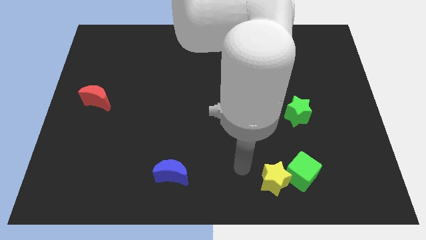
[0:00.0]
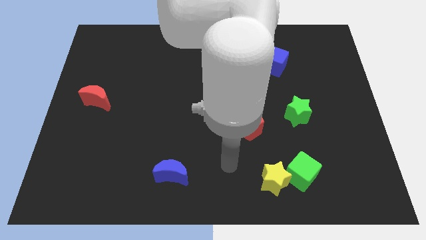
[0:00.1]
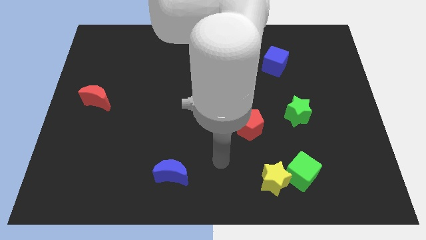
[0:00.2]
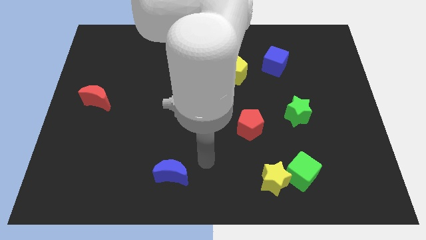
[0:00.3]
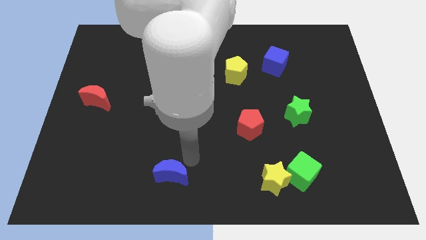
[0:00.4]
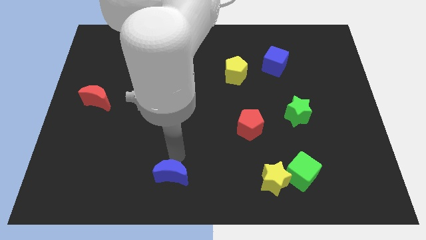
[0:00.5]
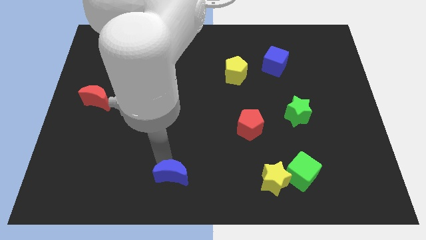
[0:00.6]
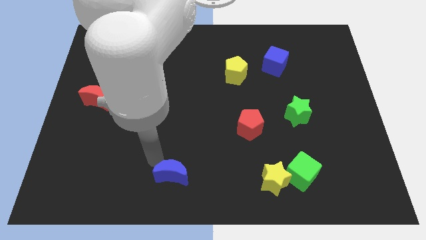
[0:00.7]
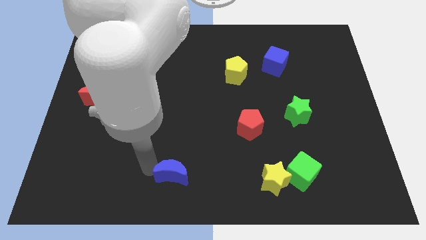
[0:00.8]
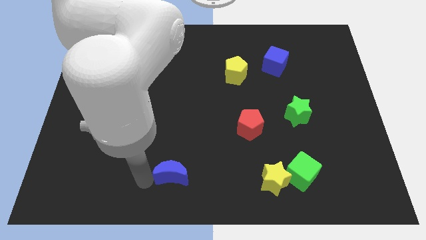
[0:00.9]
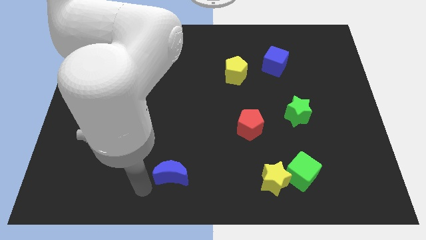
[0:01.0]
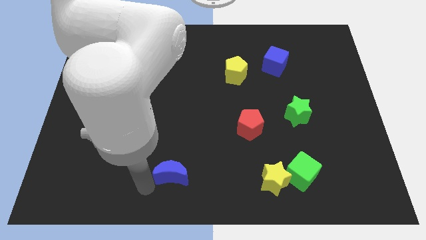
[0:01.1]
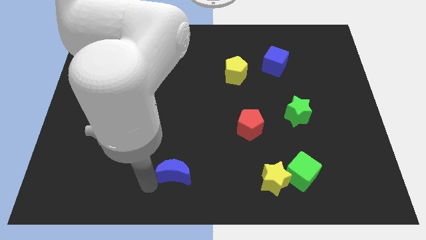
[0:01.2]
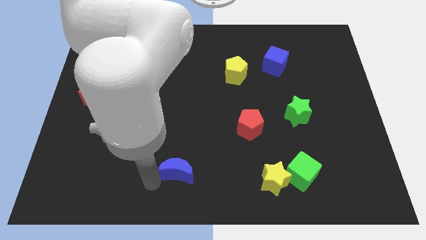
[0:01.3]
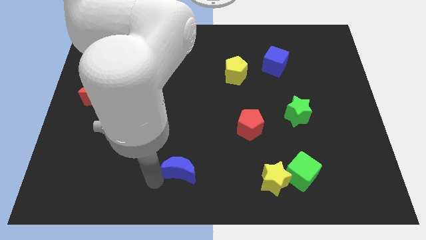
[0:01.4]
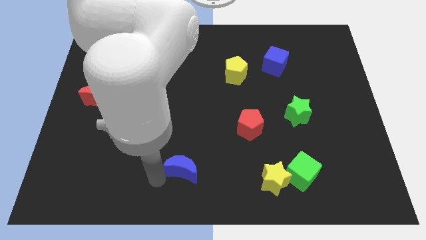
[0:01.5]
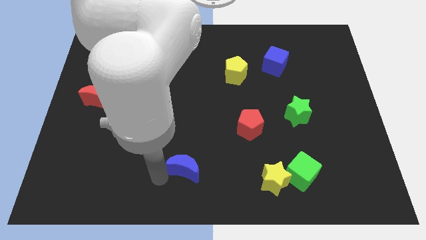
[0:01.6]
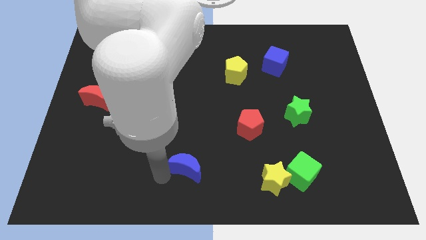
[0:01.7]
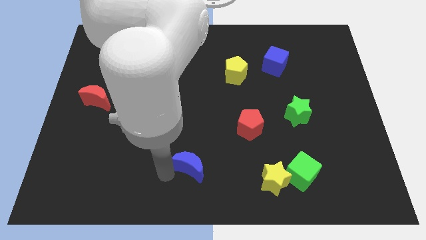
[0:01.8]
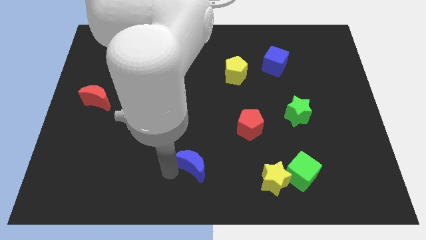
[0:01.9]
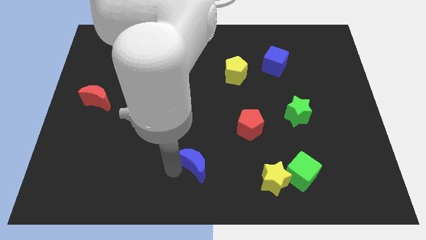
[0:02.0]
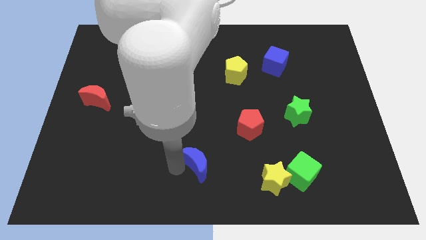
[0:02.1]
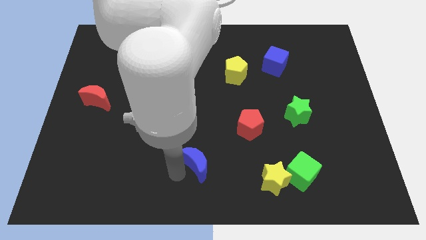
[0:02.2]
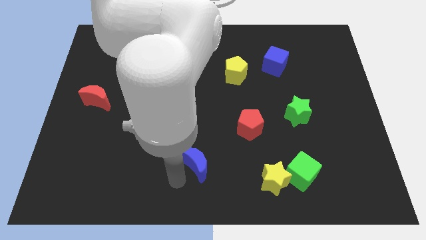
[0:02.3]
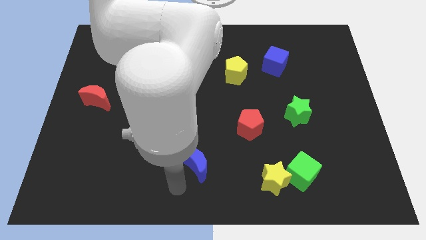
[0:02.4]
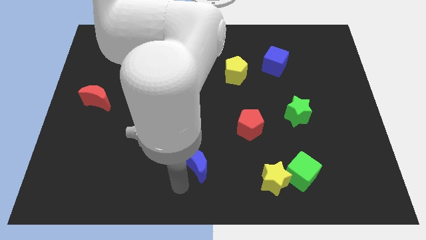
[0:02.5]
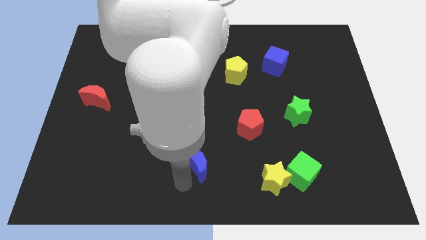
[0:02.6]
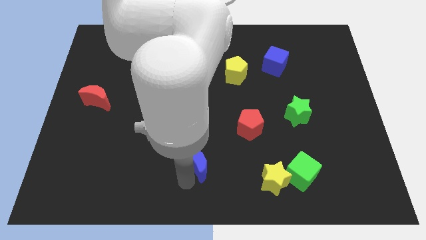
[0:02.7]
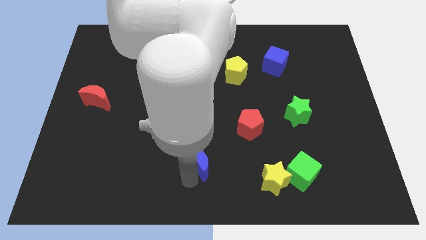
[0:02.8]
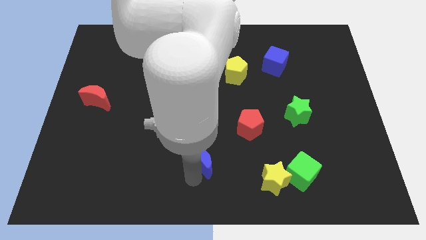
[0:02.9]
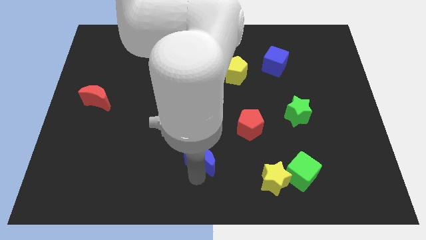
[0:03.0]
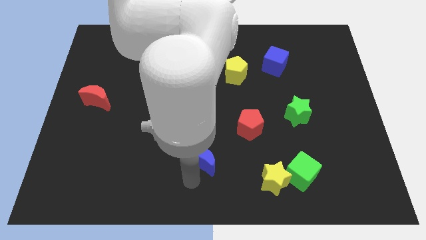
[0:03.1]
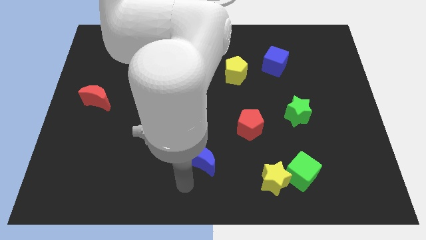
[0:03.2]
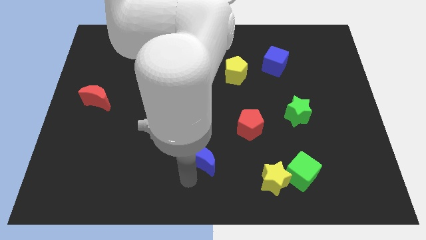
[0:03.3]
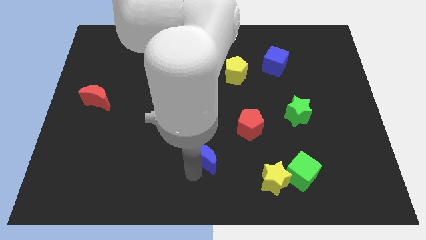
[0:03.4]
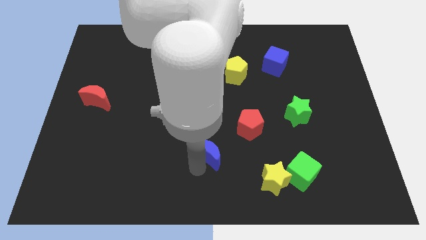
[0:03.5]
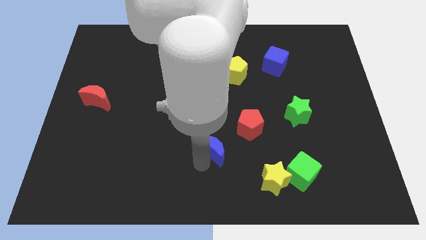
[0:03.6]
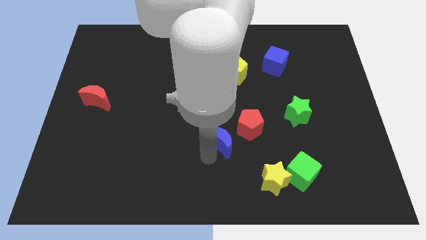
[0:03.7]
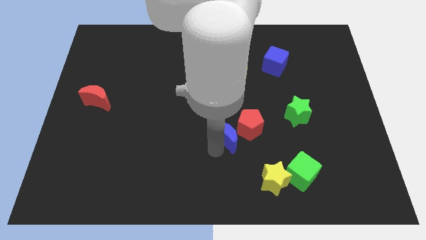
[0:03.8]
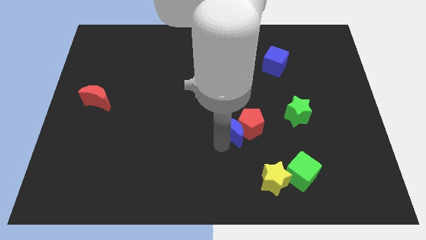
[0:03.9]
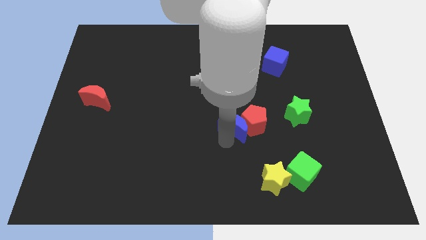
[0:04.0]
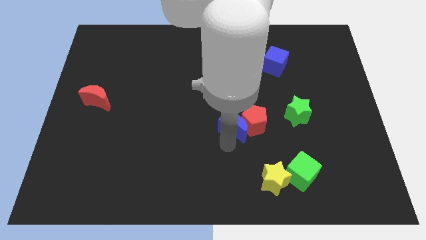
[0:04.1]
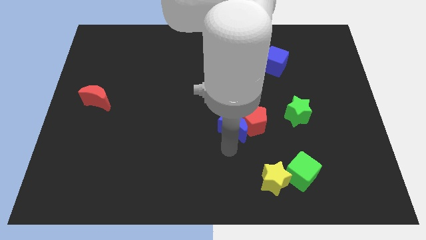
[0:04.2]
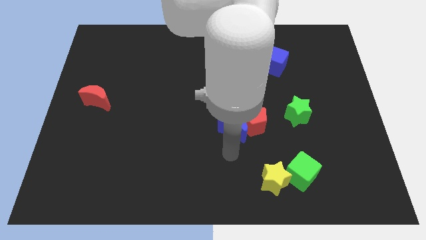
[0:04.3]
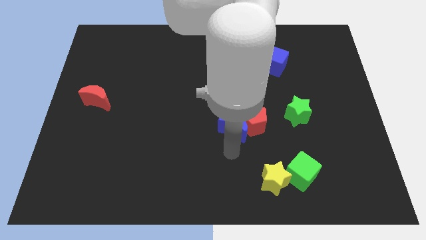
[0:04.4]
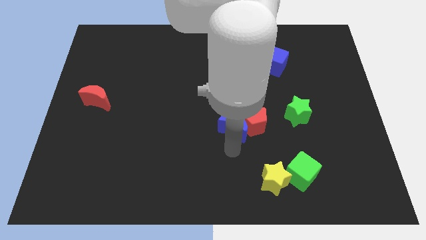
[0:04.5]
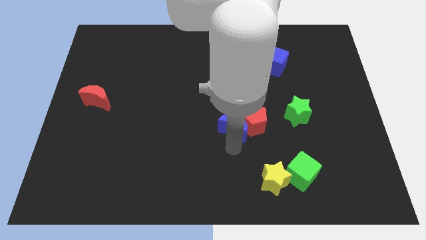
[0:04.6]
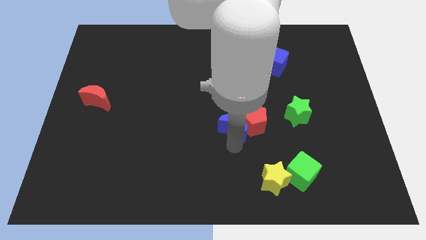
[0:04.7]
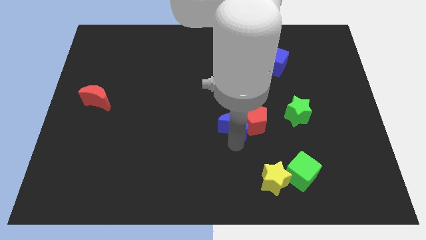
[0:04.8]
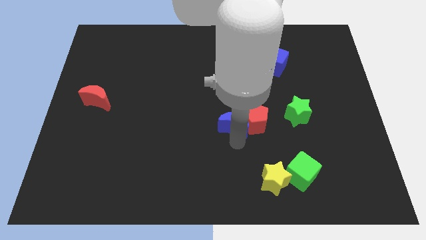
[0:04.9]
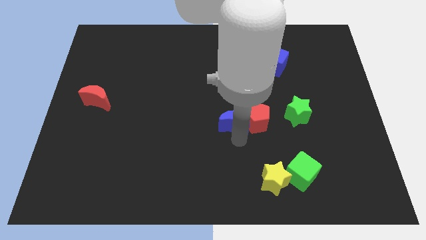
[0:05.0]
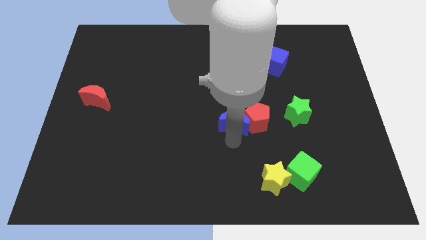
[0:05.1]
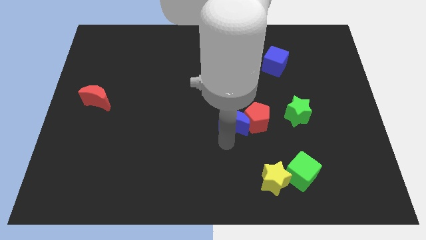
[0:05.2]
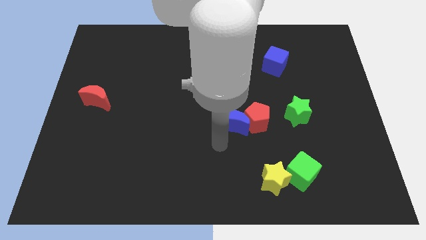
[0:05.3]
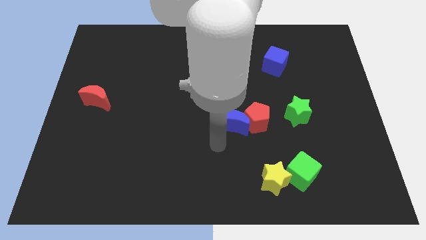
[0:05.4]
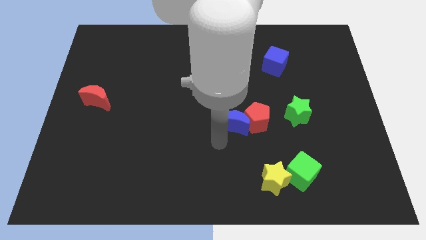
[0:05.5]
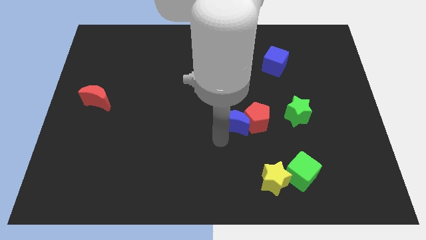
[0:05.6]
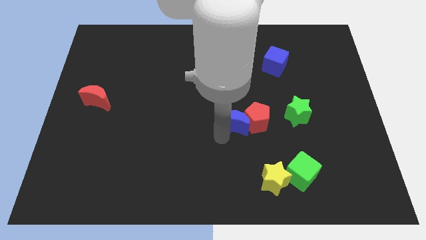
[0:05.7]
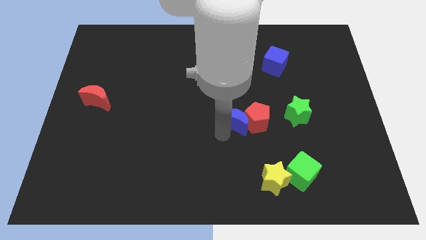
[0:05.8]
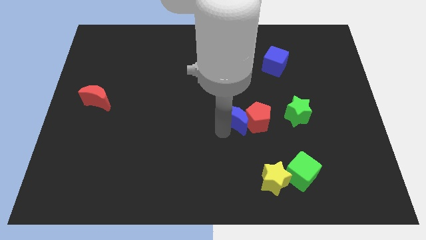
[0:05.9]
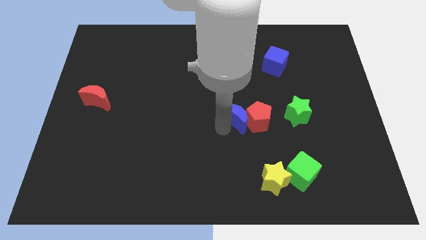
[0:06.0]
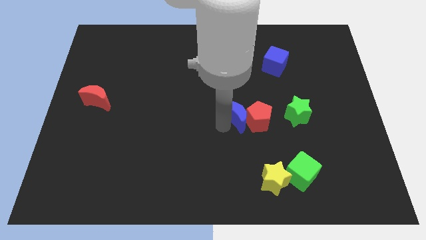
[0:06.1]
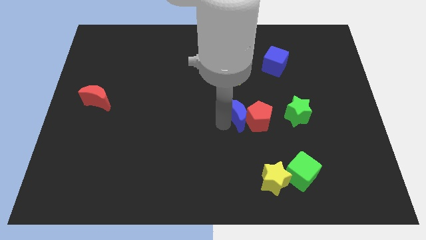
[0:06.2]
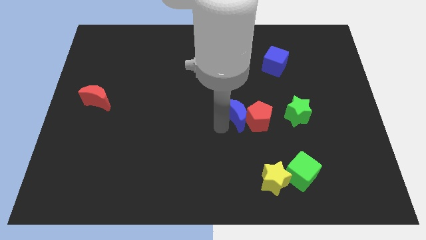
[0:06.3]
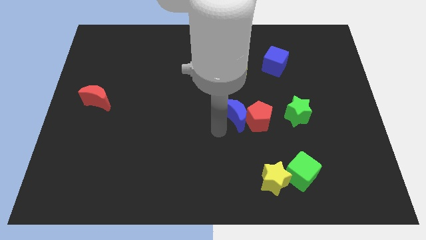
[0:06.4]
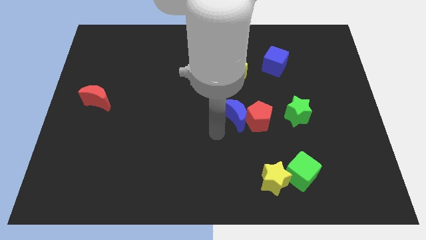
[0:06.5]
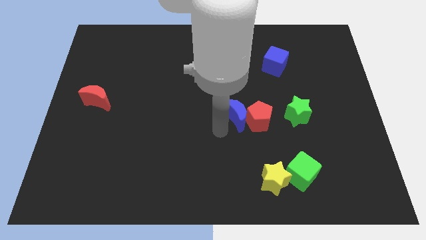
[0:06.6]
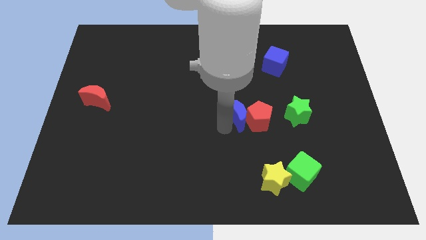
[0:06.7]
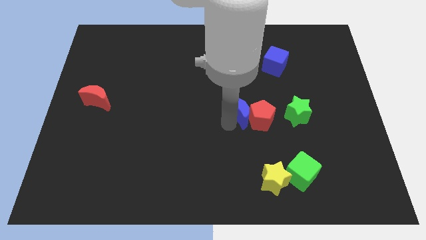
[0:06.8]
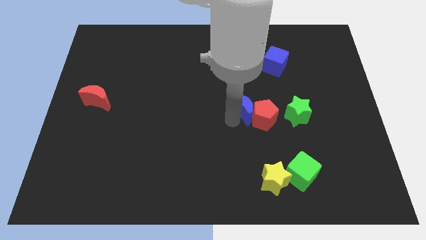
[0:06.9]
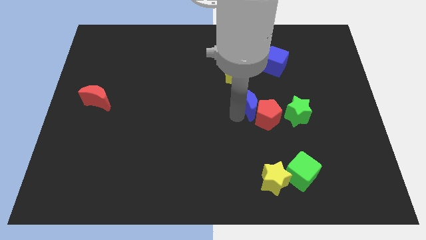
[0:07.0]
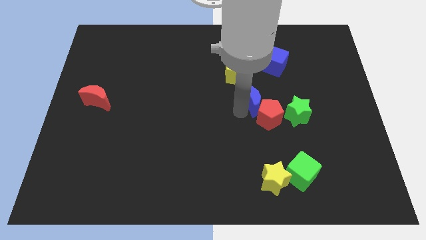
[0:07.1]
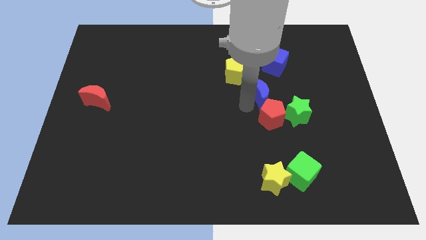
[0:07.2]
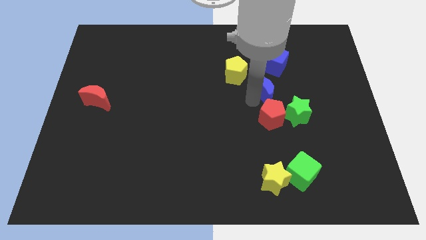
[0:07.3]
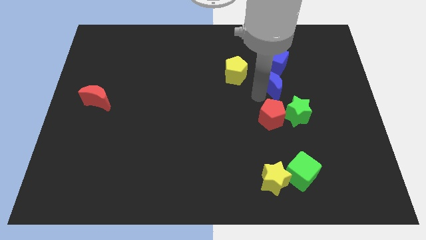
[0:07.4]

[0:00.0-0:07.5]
slide the blue moon above the green star
